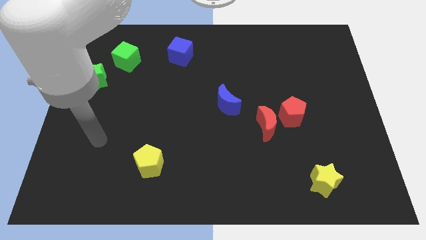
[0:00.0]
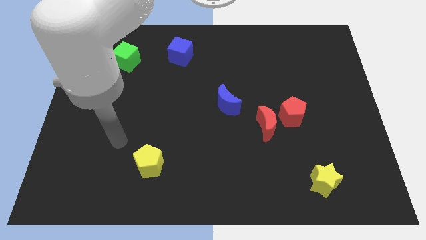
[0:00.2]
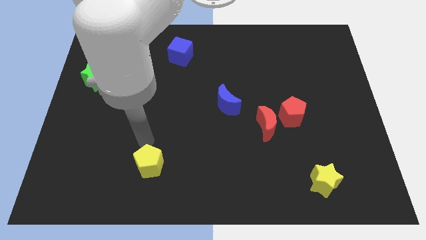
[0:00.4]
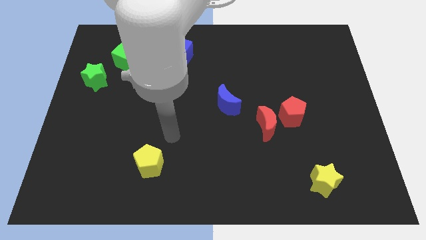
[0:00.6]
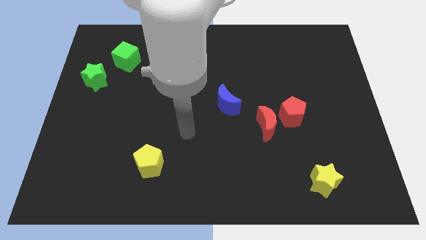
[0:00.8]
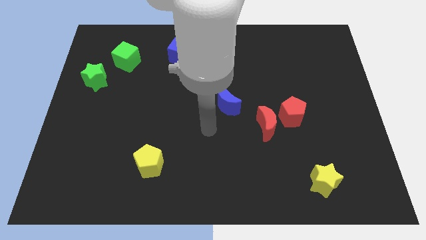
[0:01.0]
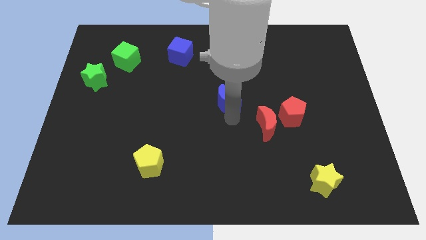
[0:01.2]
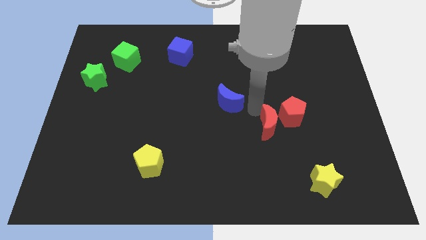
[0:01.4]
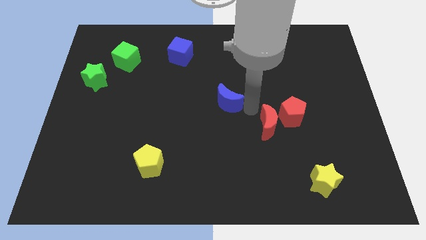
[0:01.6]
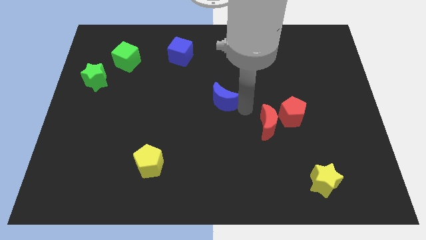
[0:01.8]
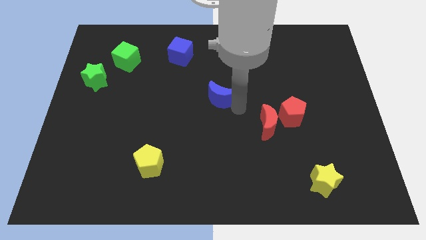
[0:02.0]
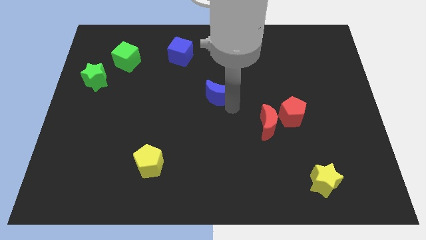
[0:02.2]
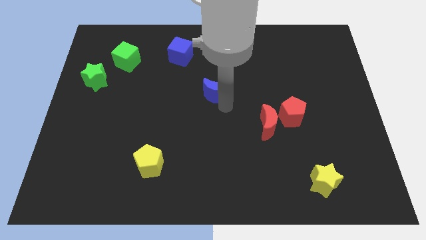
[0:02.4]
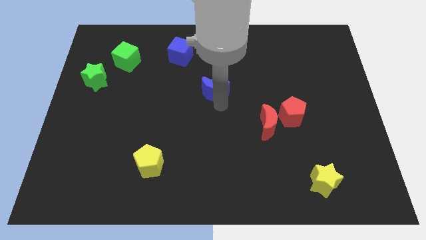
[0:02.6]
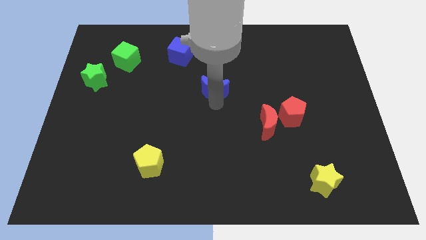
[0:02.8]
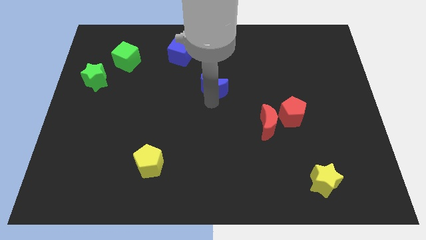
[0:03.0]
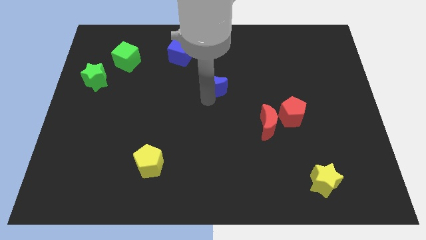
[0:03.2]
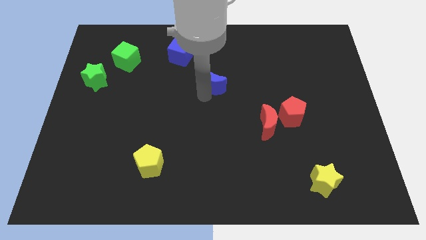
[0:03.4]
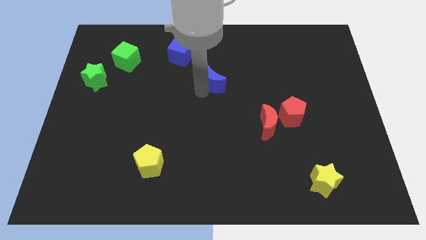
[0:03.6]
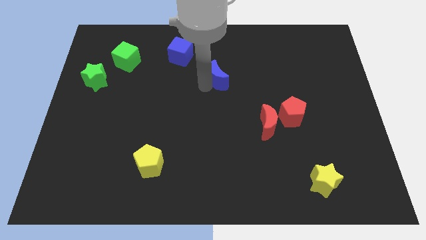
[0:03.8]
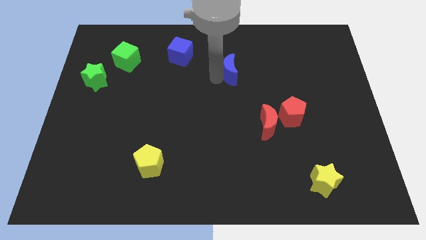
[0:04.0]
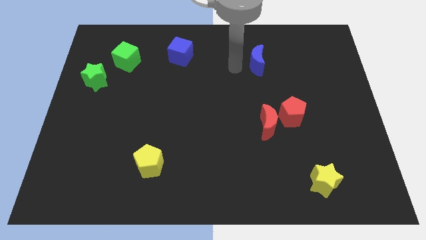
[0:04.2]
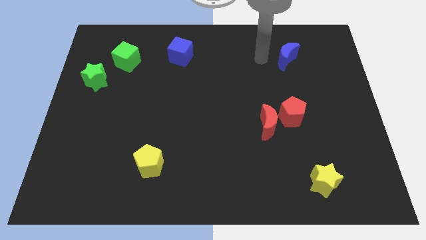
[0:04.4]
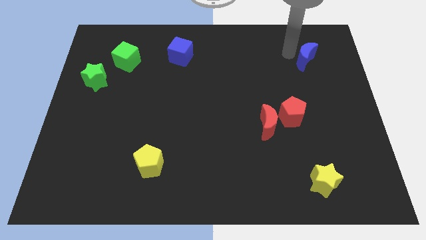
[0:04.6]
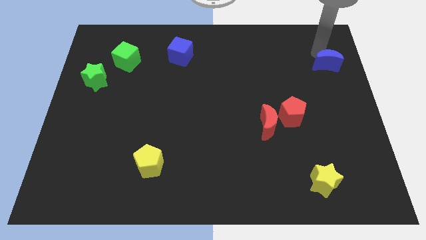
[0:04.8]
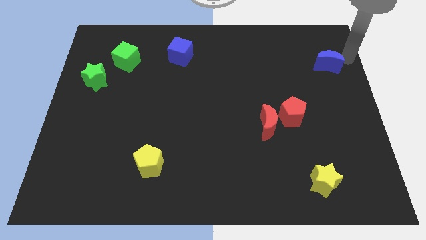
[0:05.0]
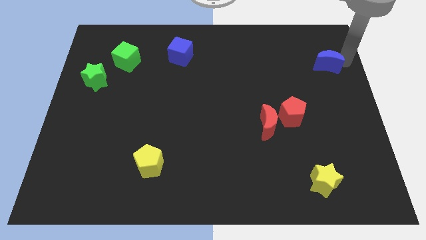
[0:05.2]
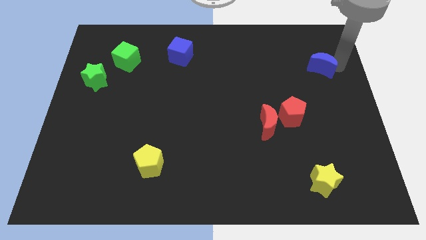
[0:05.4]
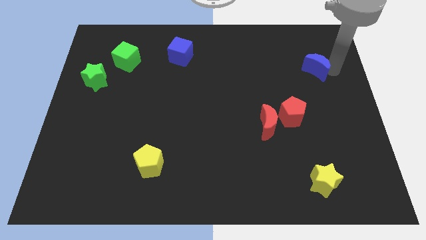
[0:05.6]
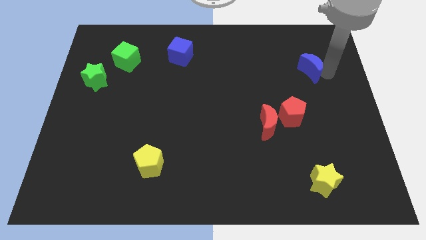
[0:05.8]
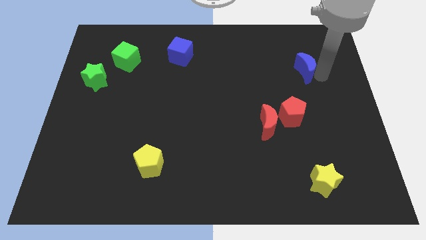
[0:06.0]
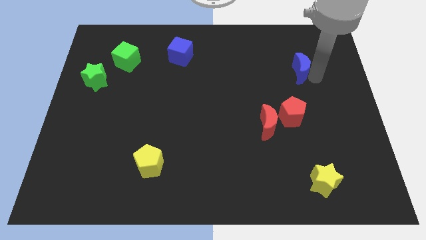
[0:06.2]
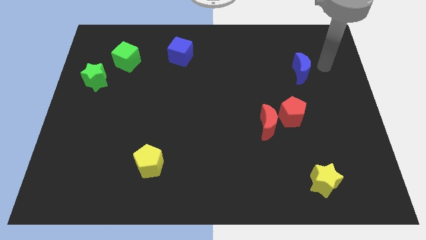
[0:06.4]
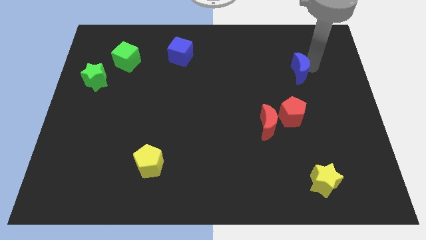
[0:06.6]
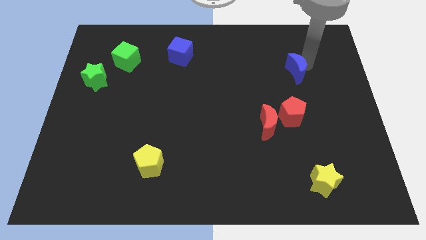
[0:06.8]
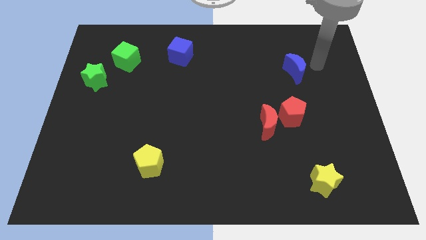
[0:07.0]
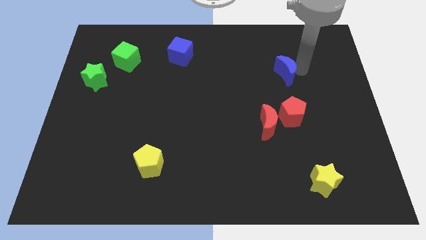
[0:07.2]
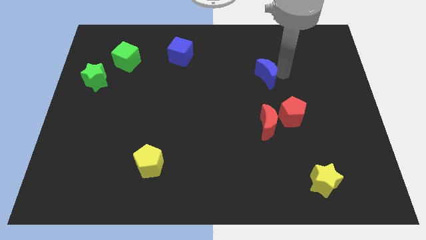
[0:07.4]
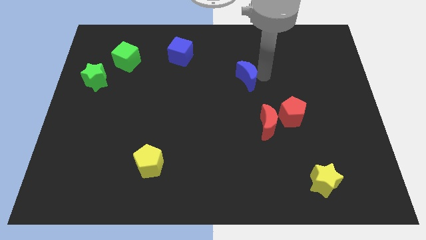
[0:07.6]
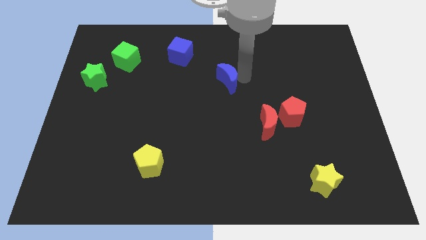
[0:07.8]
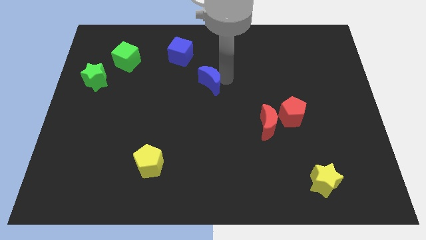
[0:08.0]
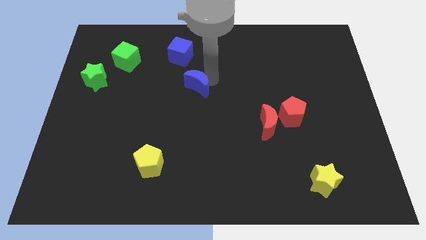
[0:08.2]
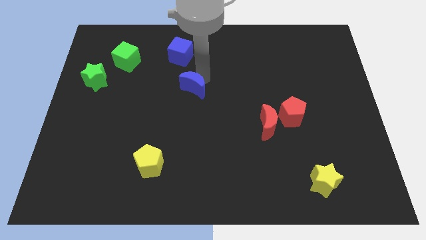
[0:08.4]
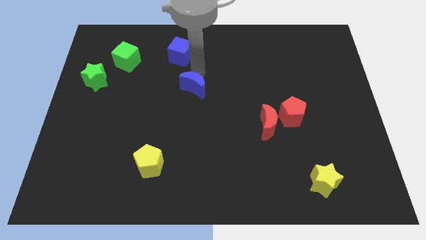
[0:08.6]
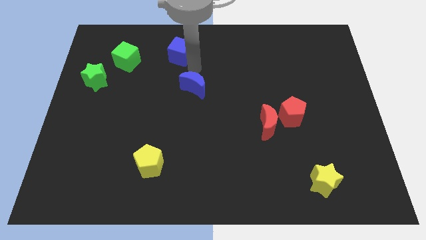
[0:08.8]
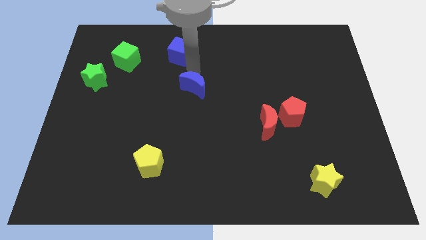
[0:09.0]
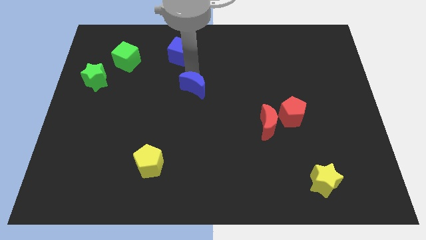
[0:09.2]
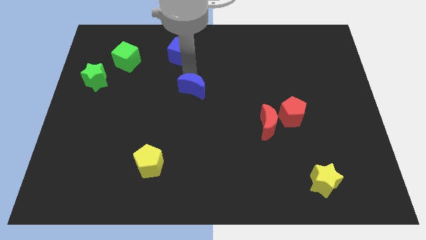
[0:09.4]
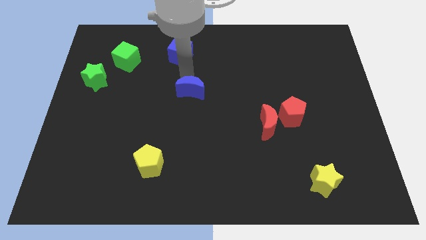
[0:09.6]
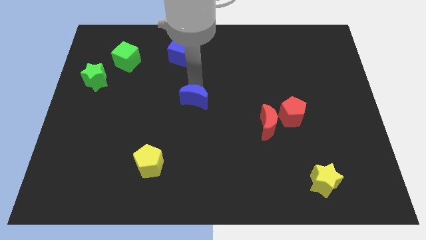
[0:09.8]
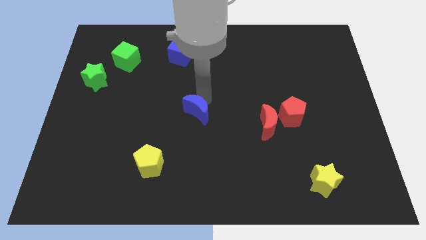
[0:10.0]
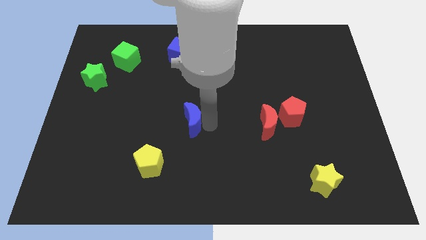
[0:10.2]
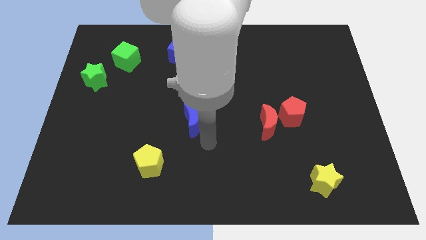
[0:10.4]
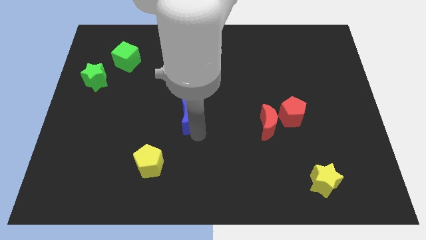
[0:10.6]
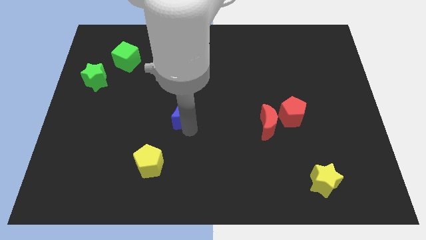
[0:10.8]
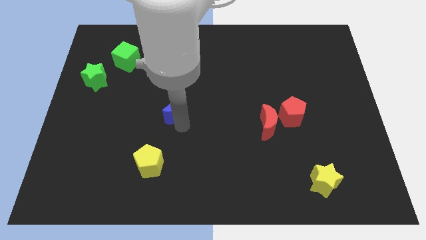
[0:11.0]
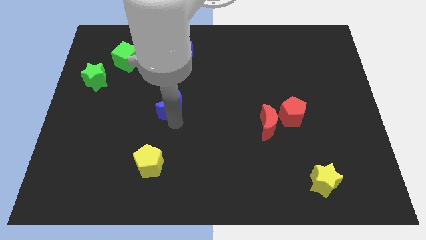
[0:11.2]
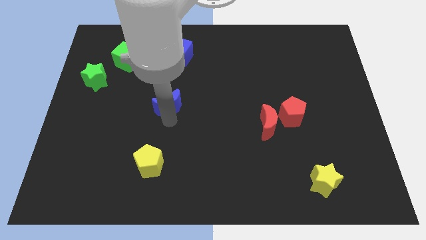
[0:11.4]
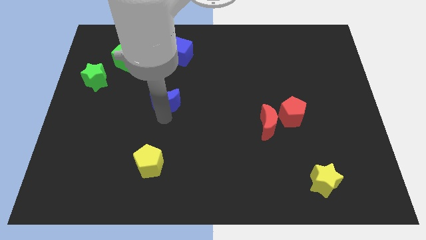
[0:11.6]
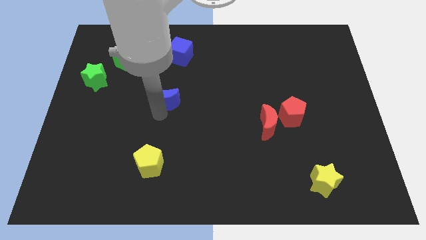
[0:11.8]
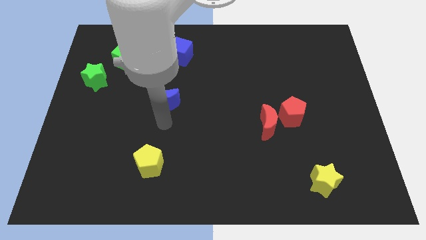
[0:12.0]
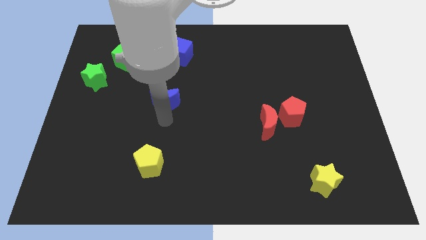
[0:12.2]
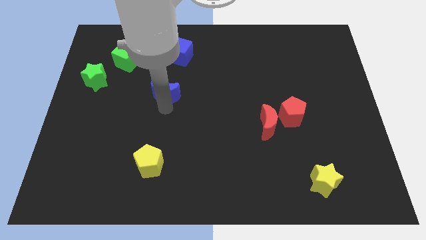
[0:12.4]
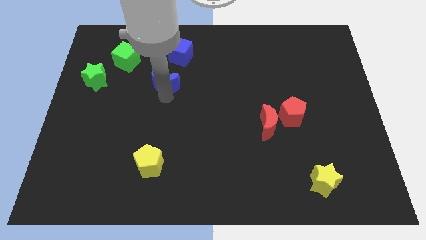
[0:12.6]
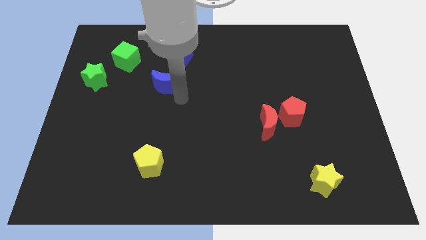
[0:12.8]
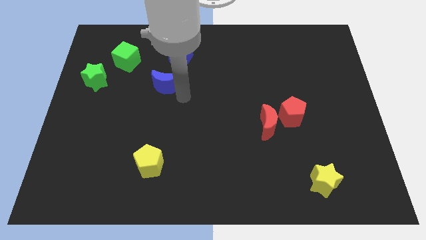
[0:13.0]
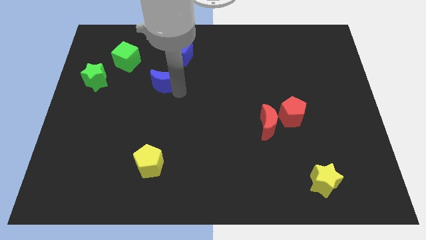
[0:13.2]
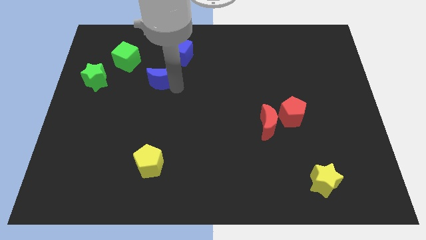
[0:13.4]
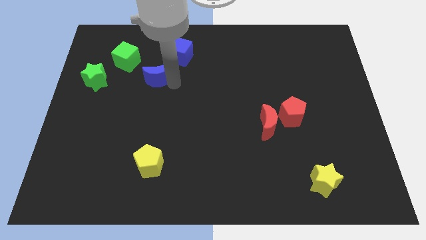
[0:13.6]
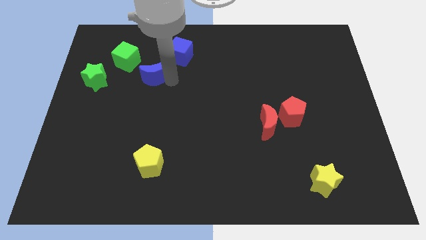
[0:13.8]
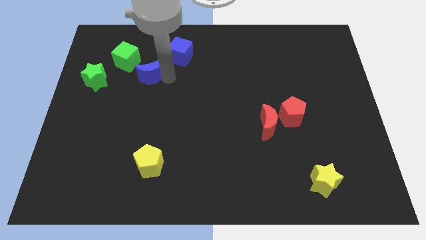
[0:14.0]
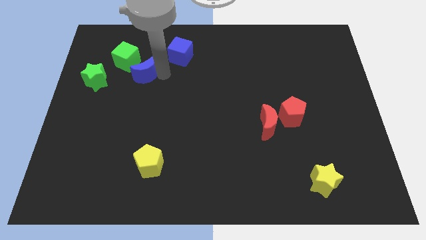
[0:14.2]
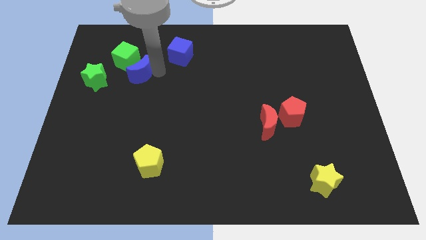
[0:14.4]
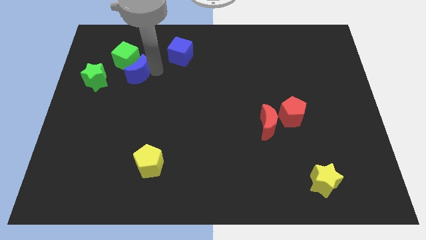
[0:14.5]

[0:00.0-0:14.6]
move the blue moon close to the green cube
